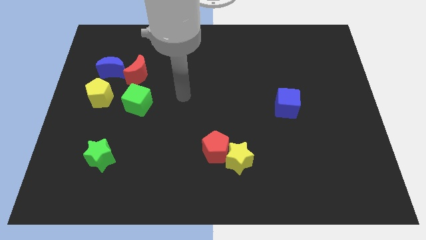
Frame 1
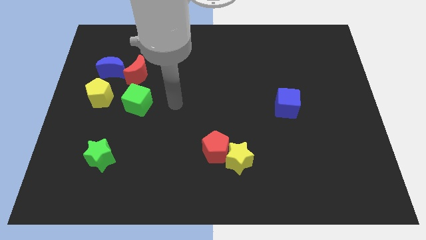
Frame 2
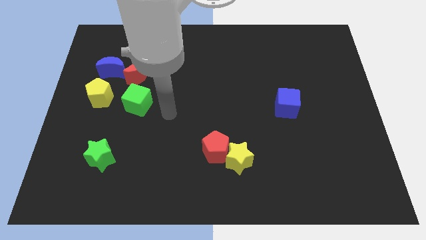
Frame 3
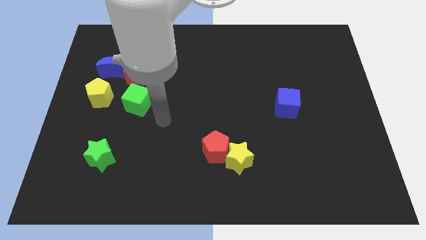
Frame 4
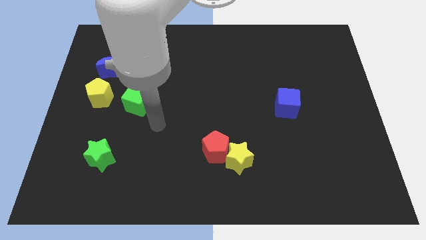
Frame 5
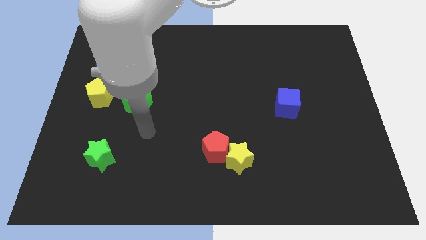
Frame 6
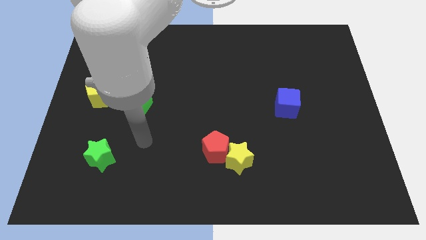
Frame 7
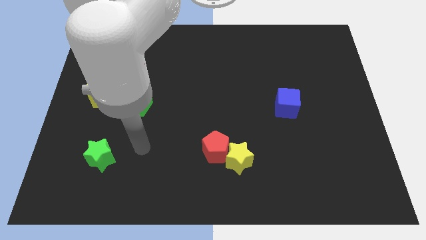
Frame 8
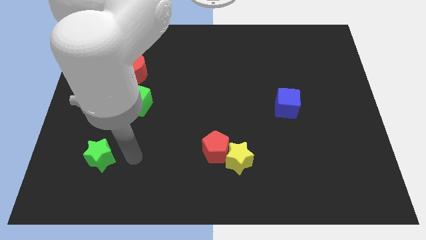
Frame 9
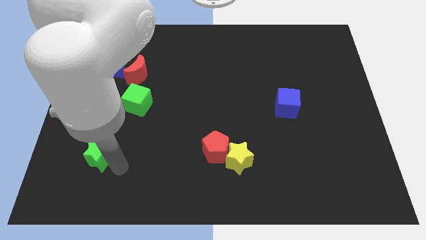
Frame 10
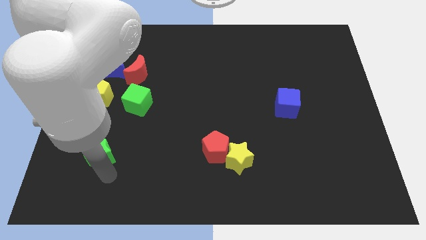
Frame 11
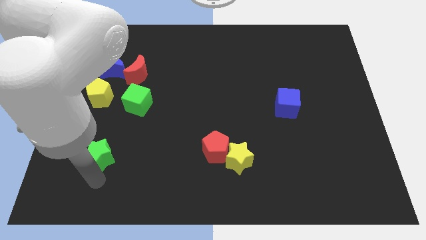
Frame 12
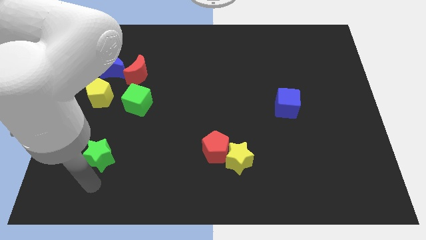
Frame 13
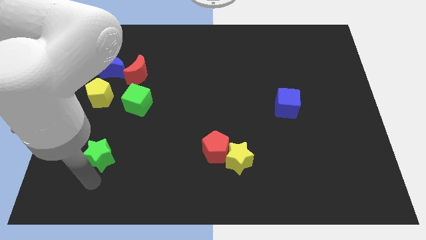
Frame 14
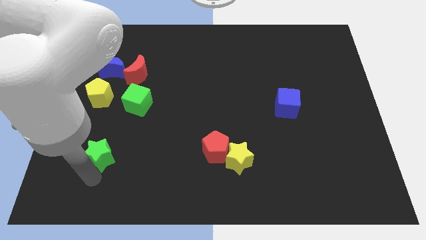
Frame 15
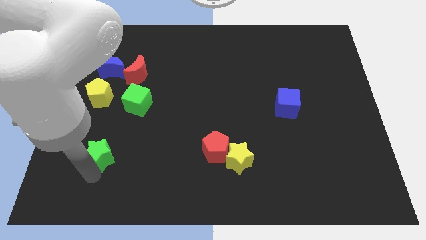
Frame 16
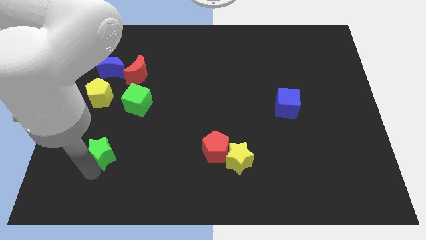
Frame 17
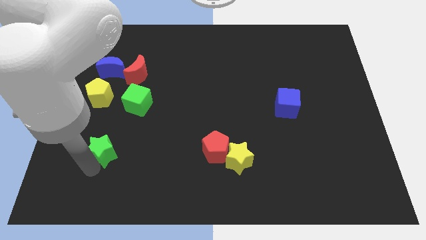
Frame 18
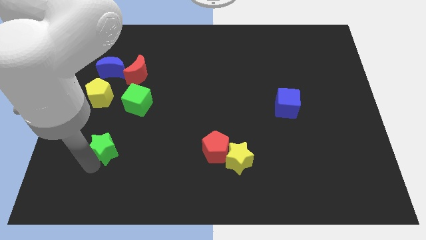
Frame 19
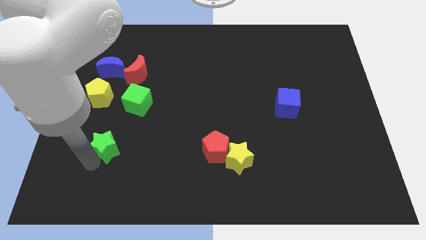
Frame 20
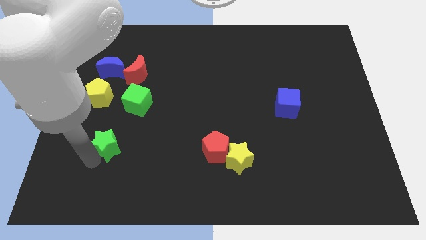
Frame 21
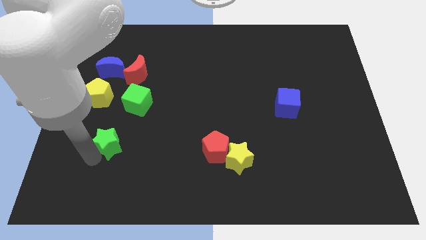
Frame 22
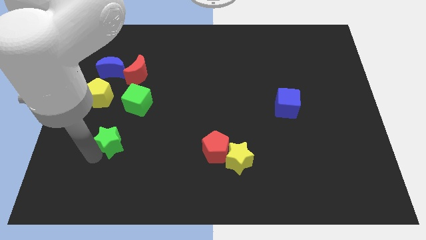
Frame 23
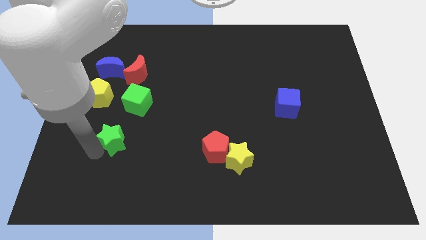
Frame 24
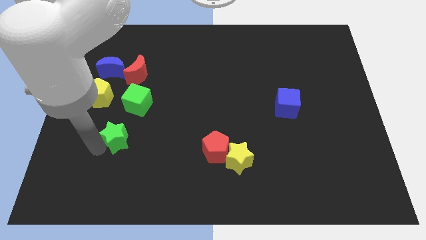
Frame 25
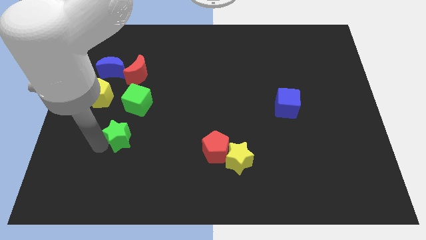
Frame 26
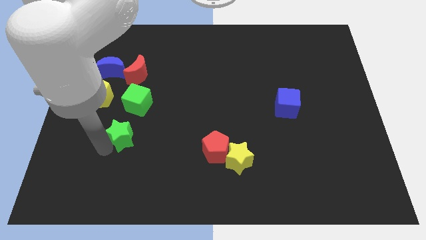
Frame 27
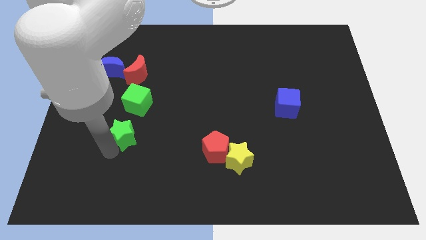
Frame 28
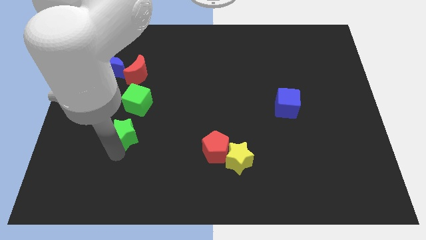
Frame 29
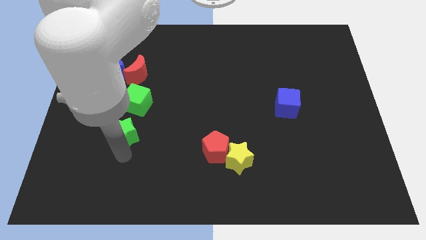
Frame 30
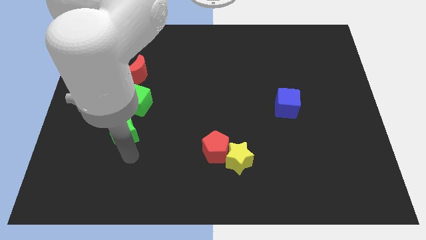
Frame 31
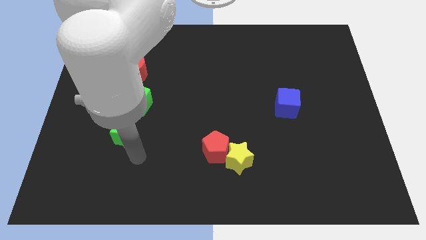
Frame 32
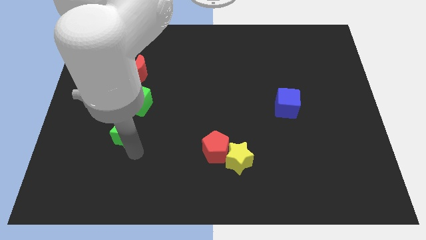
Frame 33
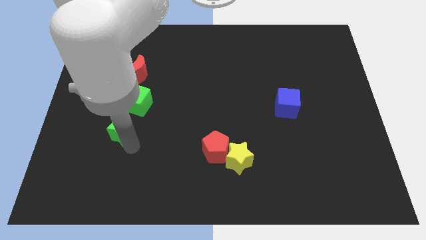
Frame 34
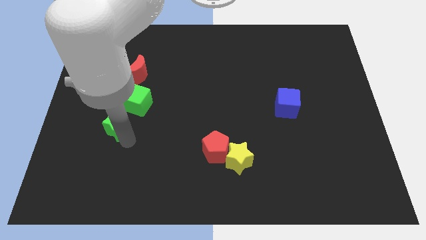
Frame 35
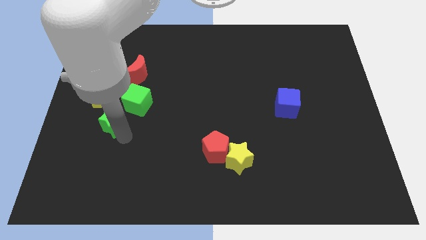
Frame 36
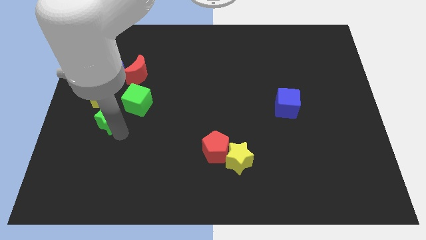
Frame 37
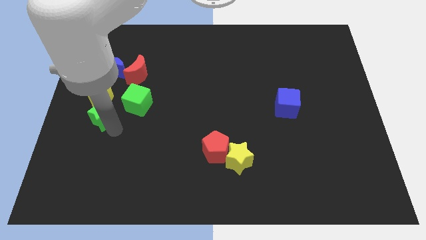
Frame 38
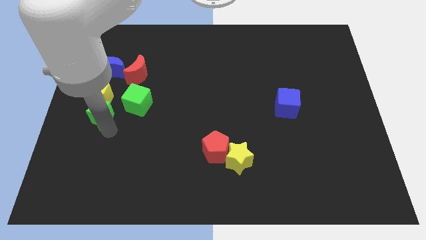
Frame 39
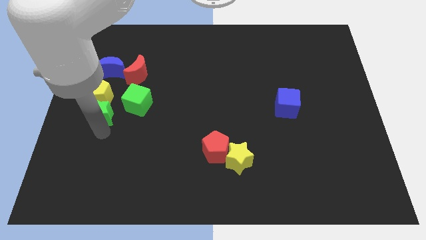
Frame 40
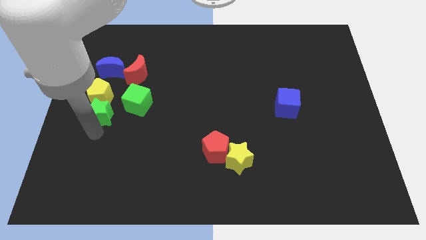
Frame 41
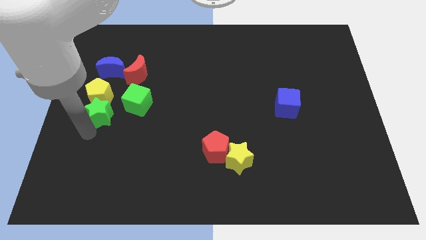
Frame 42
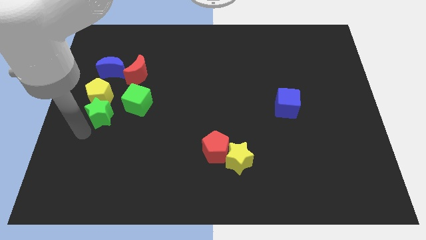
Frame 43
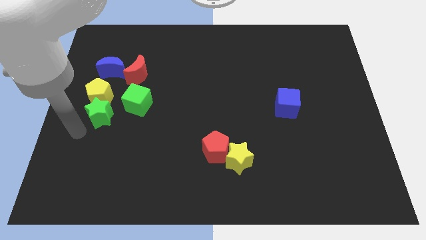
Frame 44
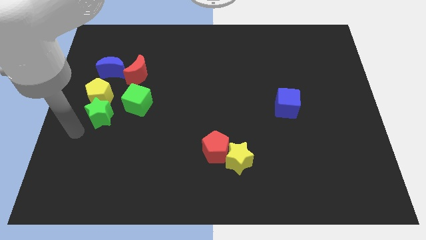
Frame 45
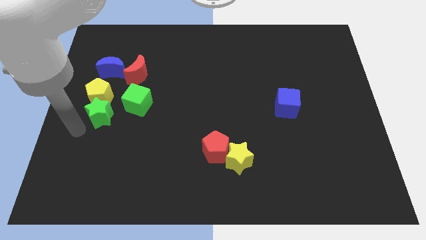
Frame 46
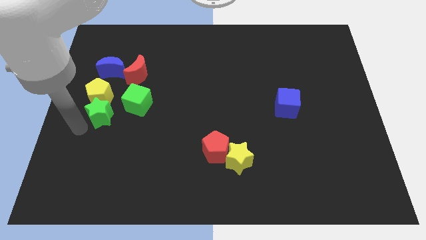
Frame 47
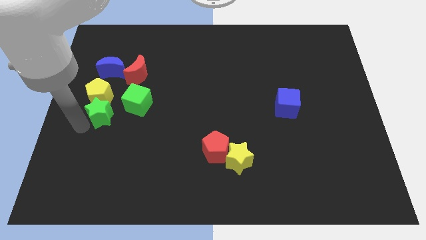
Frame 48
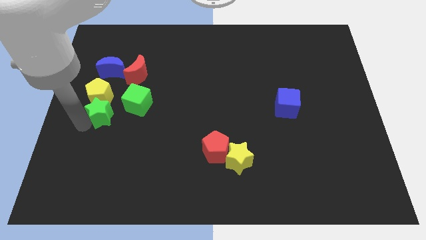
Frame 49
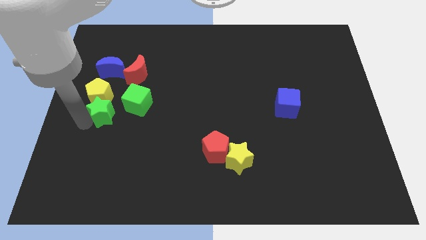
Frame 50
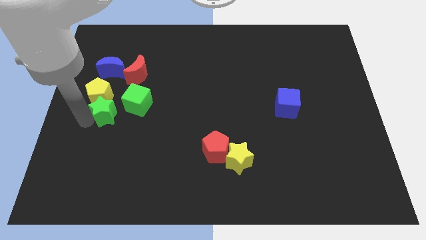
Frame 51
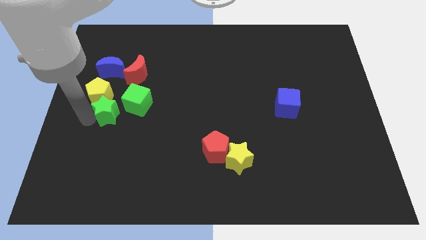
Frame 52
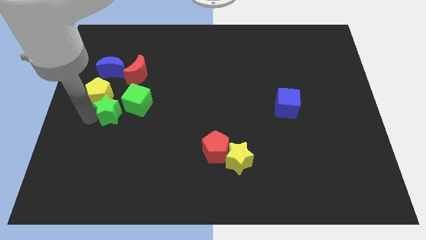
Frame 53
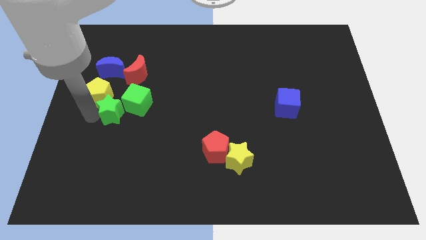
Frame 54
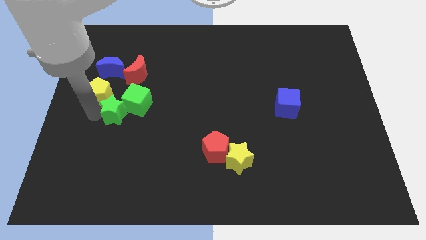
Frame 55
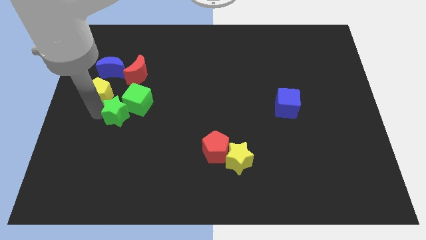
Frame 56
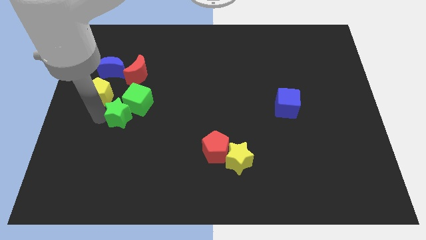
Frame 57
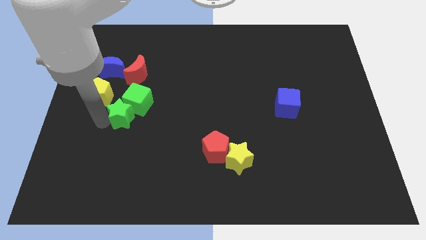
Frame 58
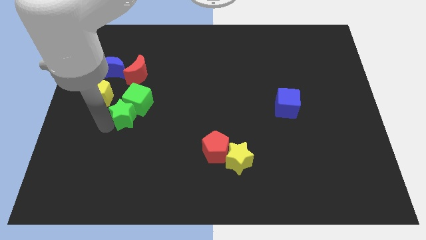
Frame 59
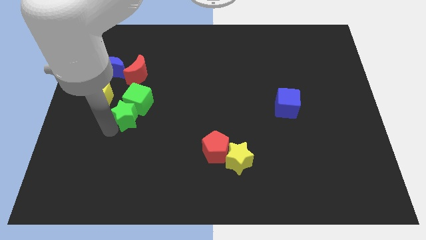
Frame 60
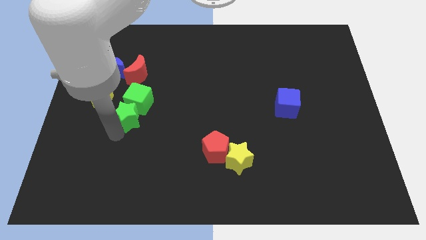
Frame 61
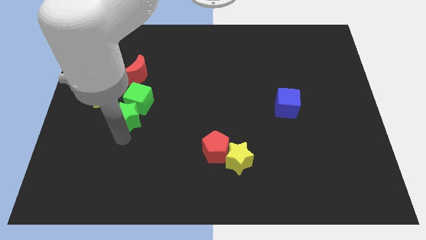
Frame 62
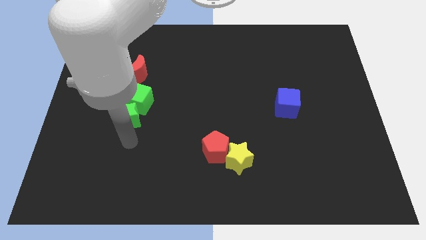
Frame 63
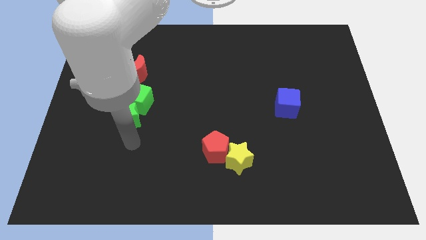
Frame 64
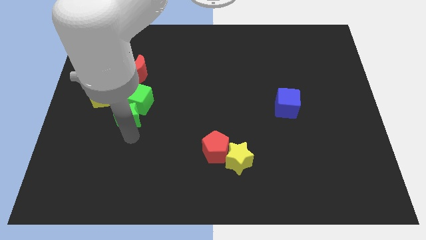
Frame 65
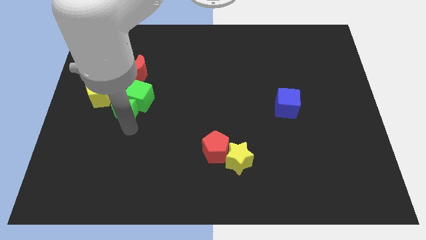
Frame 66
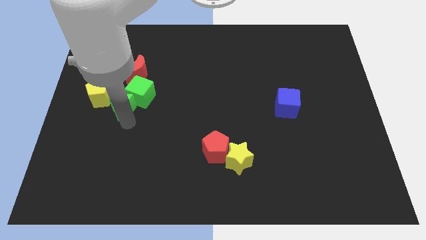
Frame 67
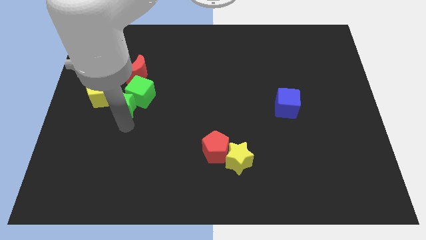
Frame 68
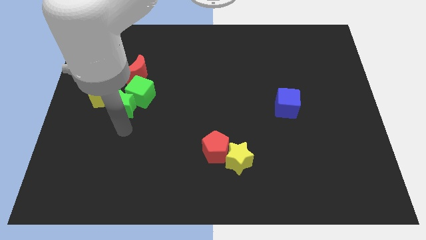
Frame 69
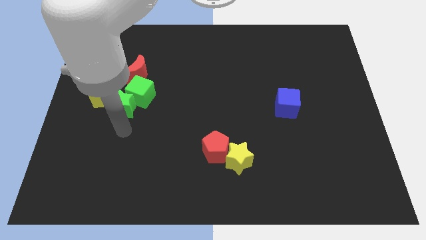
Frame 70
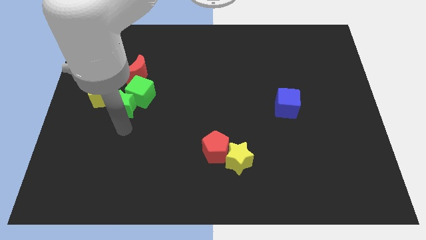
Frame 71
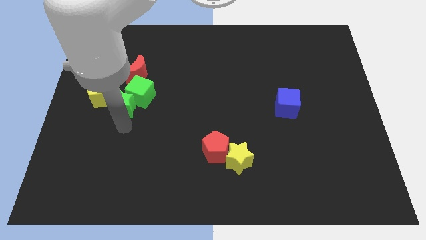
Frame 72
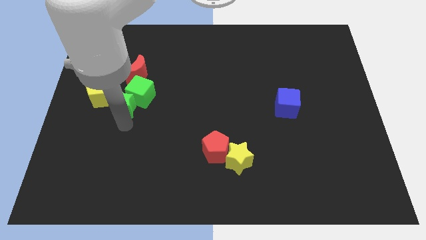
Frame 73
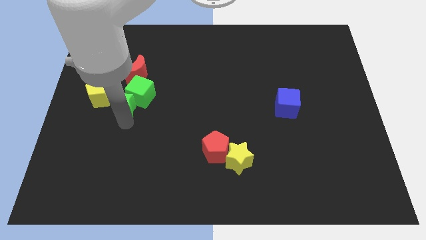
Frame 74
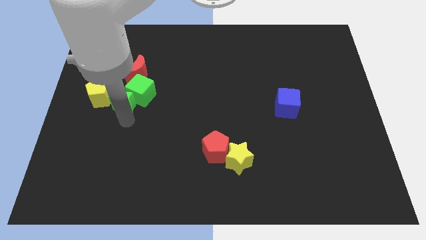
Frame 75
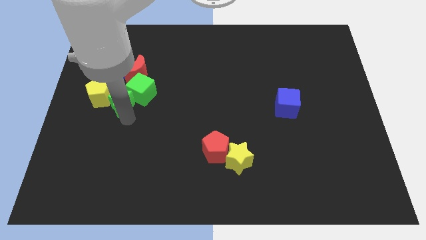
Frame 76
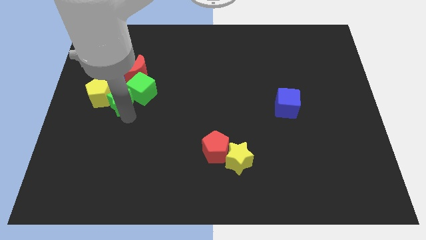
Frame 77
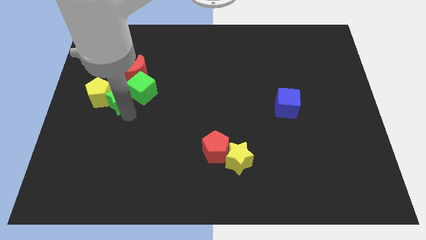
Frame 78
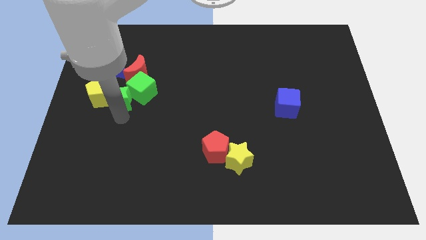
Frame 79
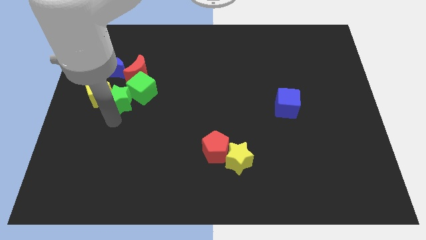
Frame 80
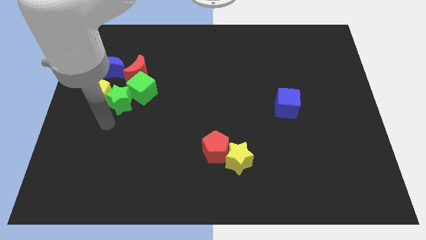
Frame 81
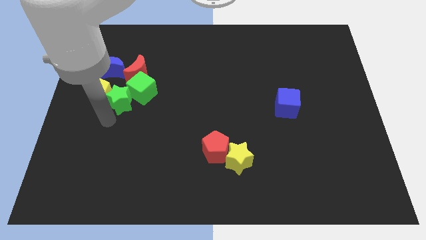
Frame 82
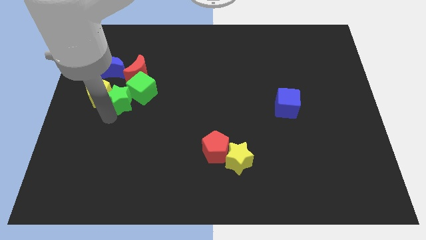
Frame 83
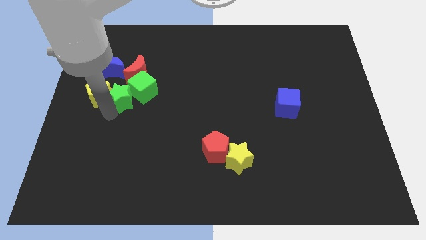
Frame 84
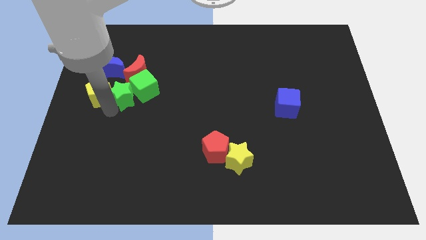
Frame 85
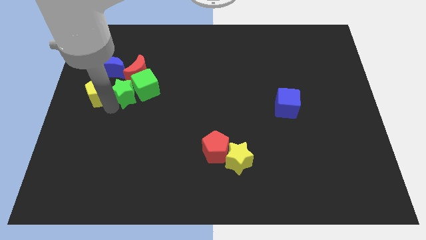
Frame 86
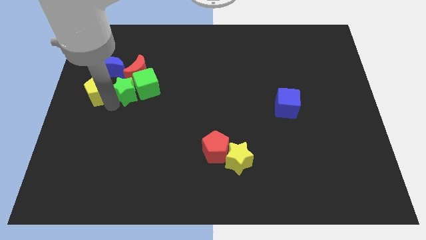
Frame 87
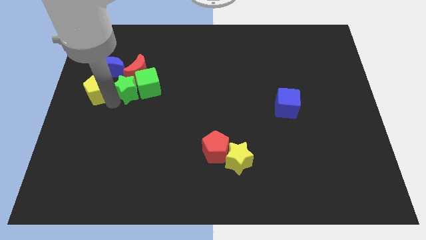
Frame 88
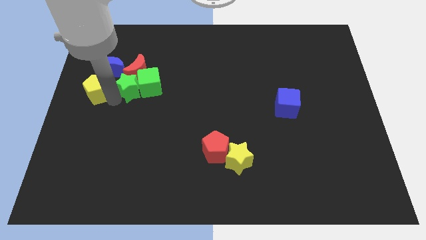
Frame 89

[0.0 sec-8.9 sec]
move the green star towards the red moon
